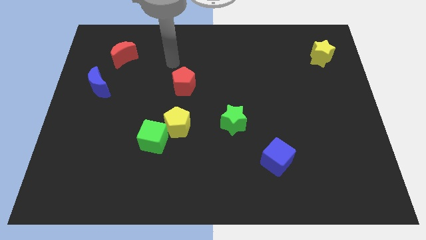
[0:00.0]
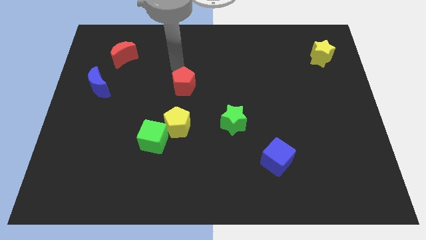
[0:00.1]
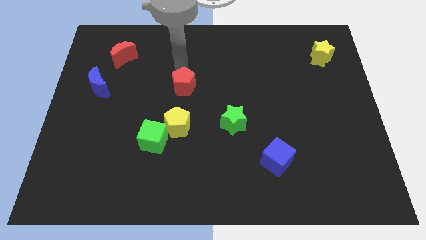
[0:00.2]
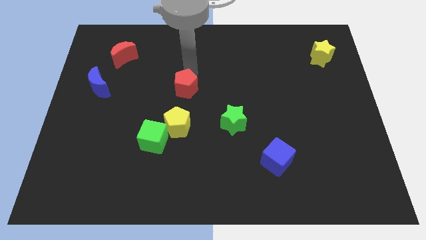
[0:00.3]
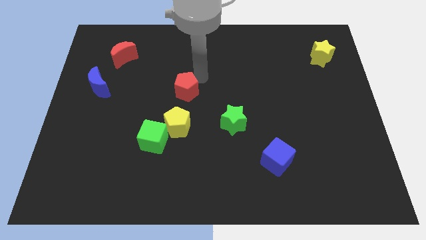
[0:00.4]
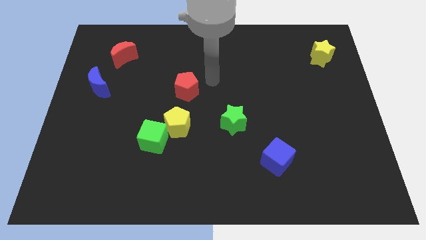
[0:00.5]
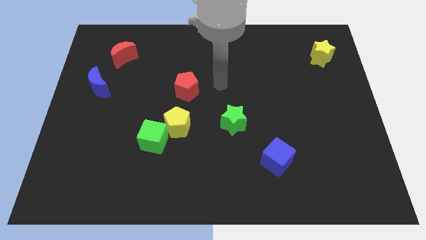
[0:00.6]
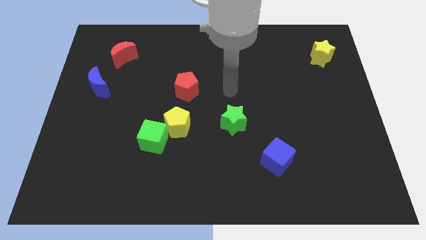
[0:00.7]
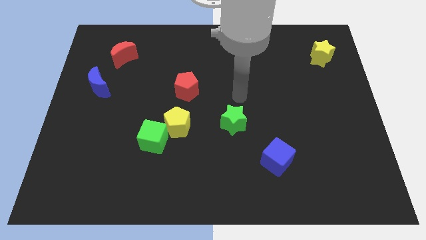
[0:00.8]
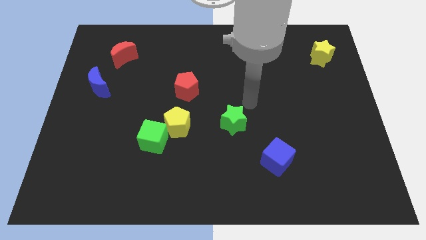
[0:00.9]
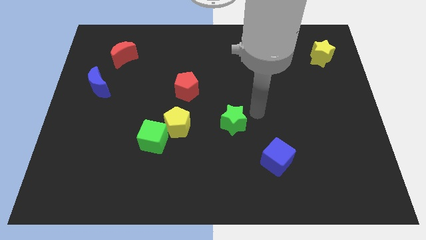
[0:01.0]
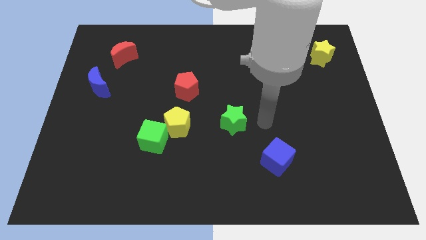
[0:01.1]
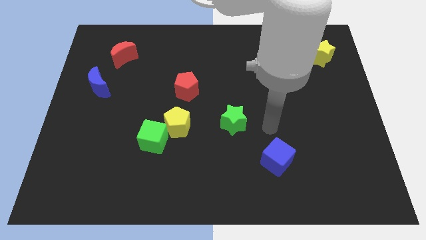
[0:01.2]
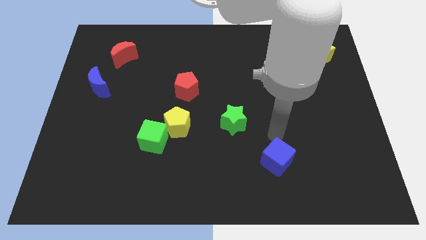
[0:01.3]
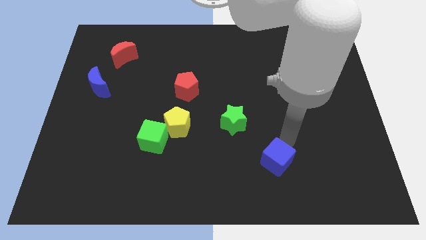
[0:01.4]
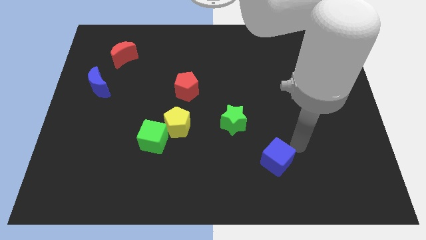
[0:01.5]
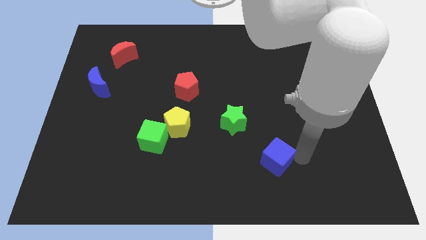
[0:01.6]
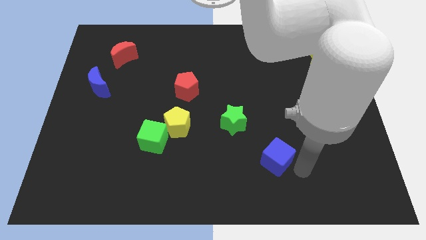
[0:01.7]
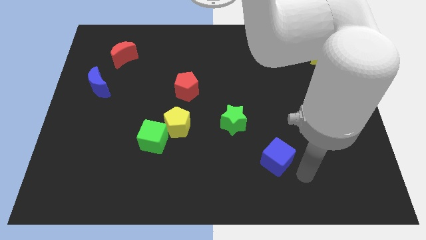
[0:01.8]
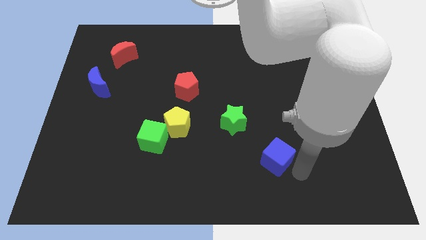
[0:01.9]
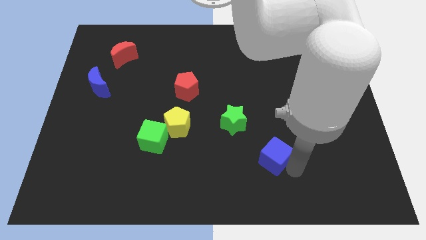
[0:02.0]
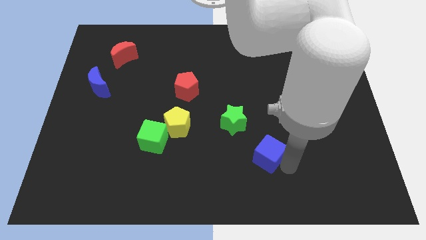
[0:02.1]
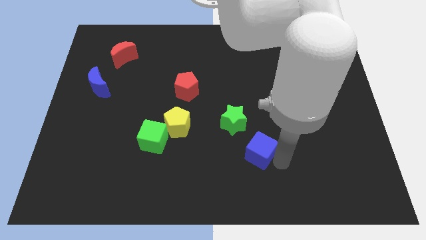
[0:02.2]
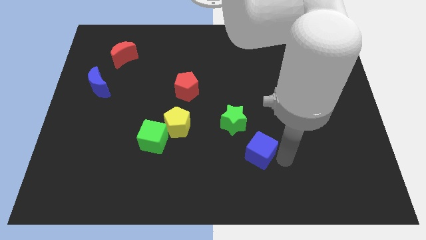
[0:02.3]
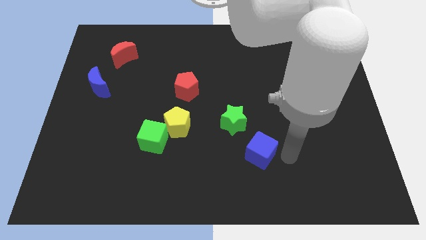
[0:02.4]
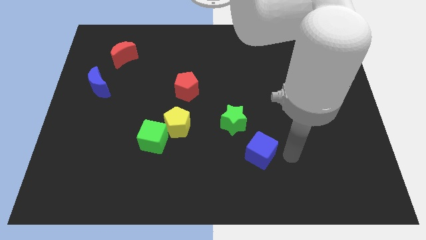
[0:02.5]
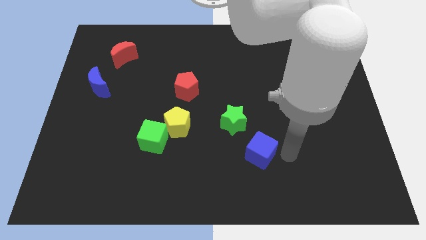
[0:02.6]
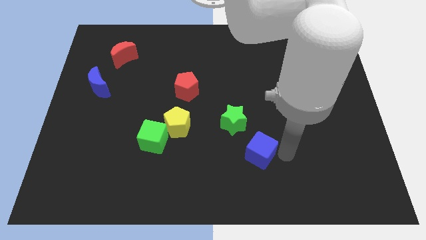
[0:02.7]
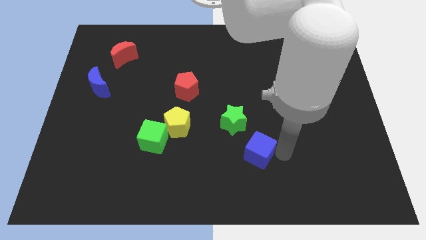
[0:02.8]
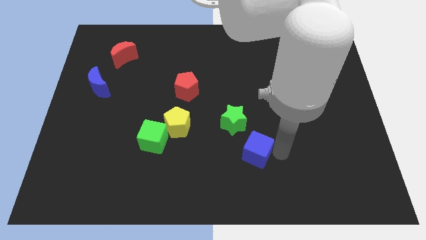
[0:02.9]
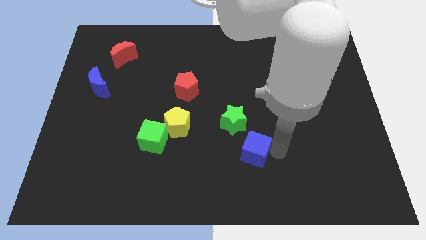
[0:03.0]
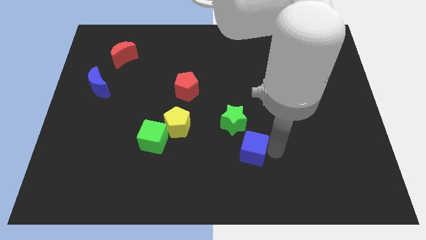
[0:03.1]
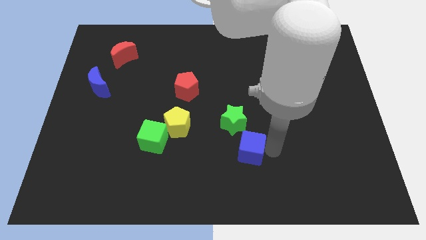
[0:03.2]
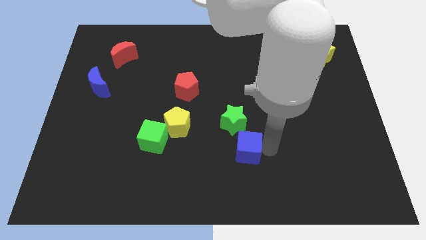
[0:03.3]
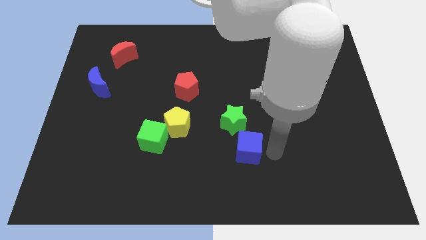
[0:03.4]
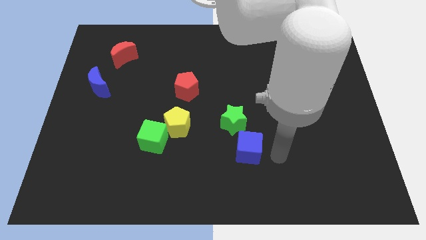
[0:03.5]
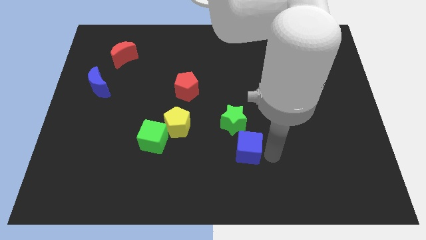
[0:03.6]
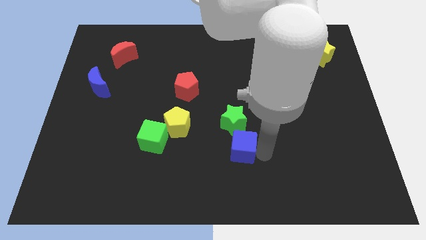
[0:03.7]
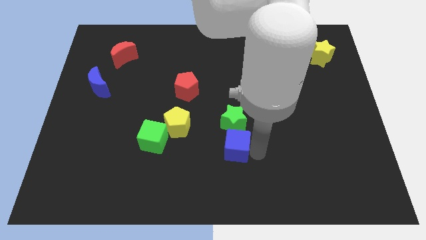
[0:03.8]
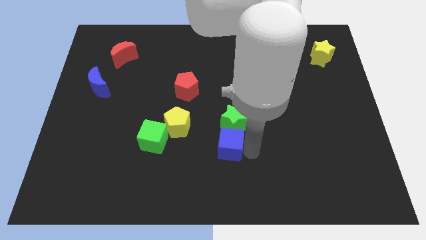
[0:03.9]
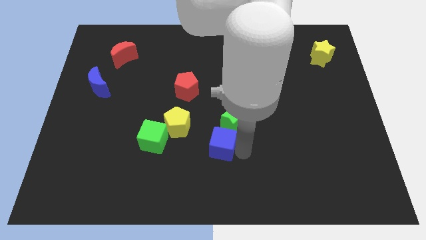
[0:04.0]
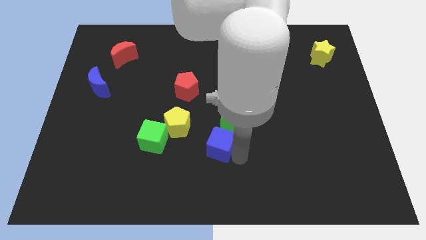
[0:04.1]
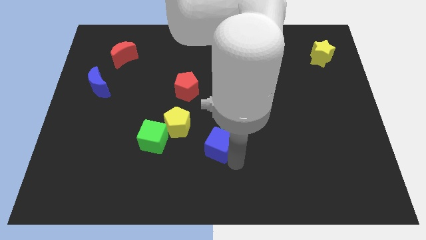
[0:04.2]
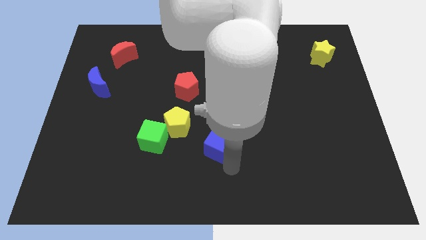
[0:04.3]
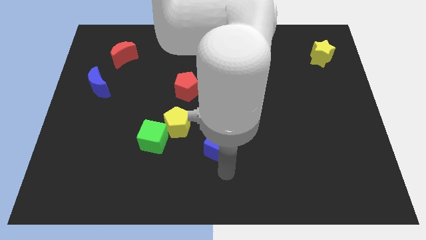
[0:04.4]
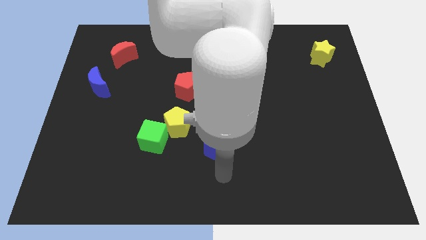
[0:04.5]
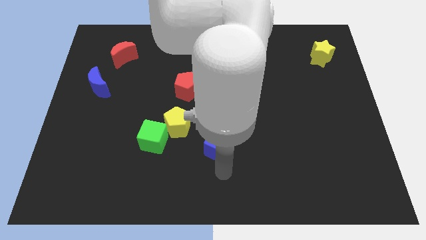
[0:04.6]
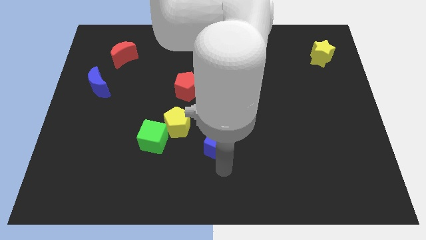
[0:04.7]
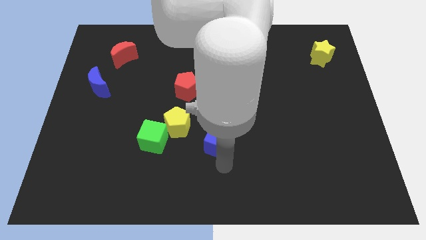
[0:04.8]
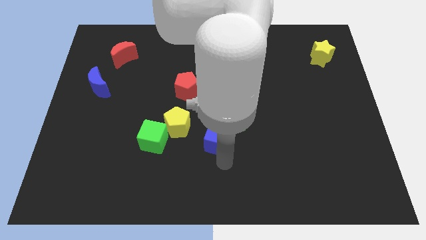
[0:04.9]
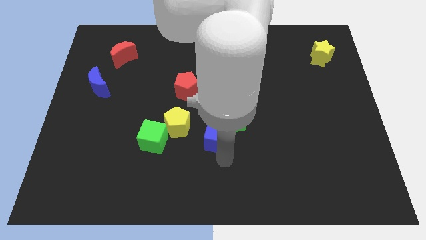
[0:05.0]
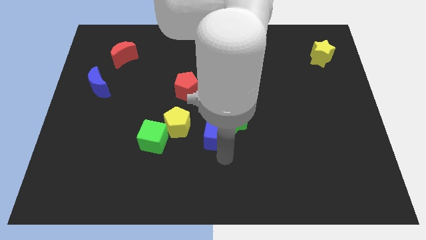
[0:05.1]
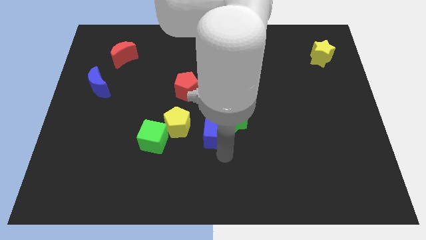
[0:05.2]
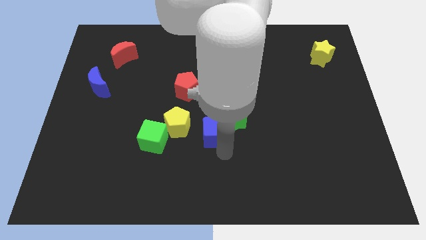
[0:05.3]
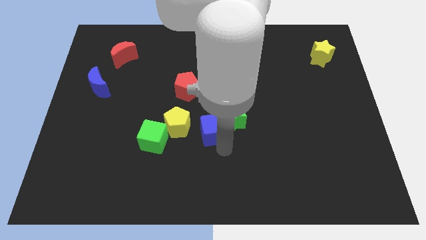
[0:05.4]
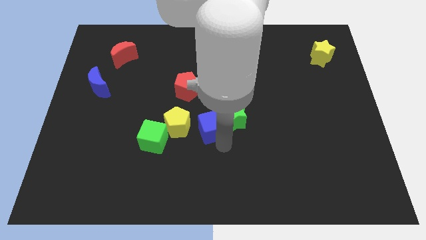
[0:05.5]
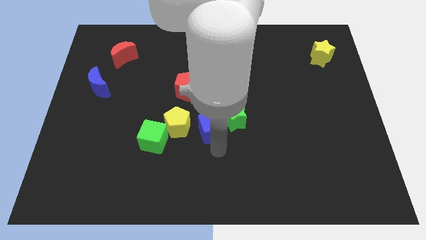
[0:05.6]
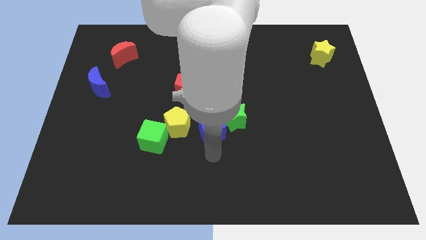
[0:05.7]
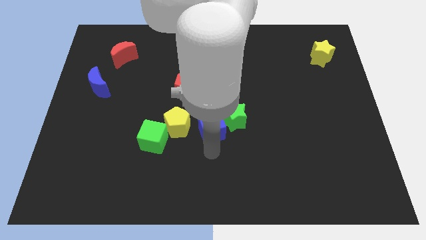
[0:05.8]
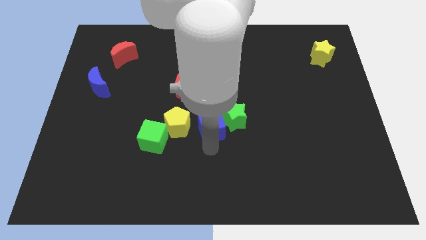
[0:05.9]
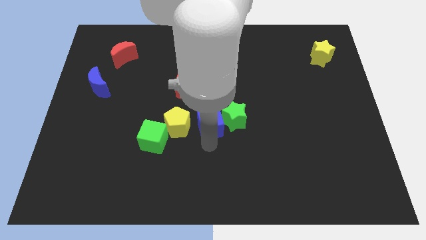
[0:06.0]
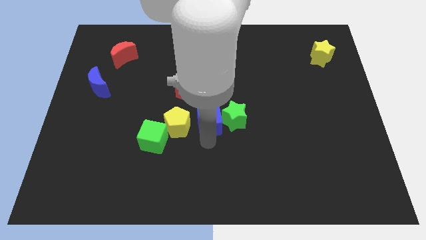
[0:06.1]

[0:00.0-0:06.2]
put the blue cube diagonally up and to the left of the green star
